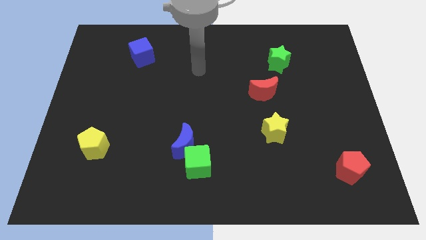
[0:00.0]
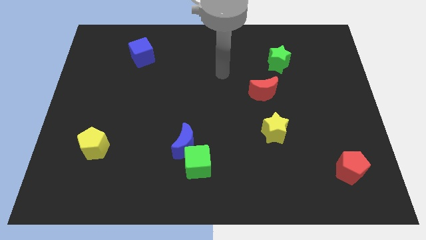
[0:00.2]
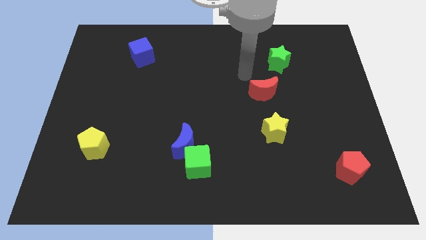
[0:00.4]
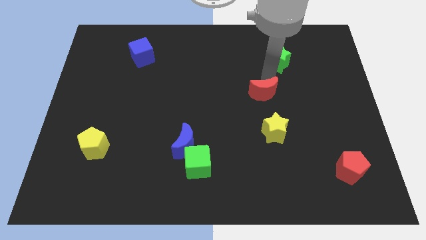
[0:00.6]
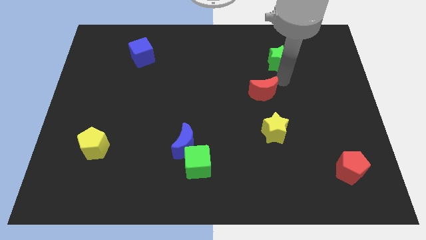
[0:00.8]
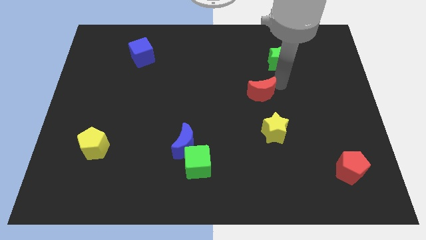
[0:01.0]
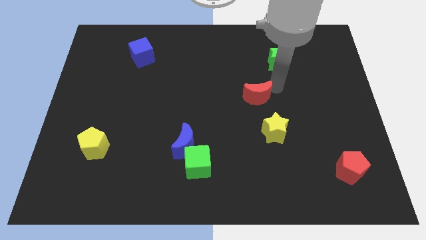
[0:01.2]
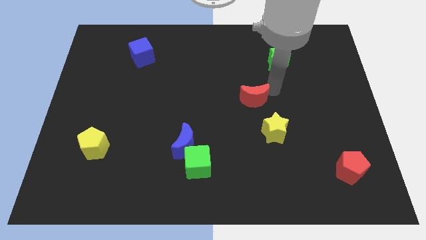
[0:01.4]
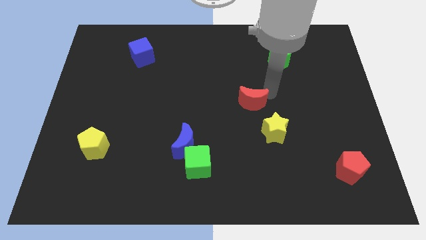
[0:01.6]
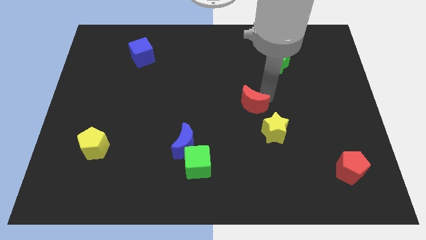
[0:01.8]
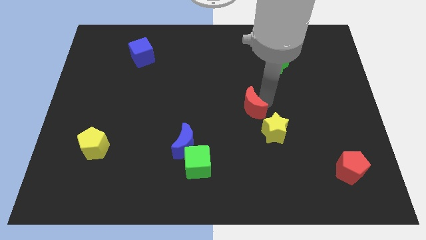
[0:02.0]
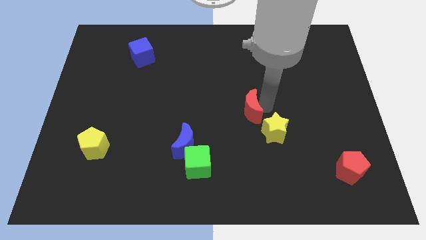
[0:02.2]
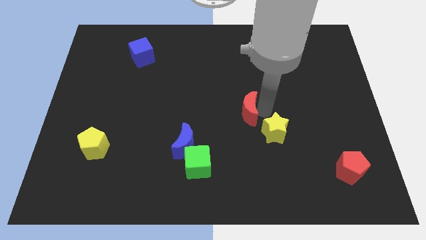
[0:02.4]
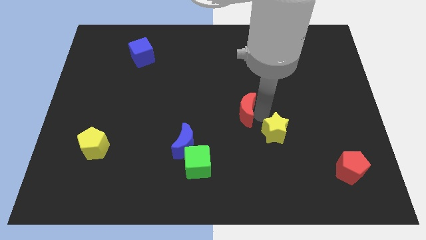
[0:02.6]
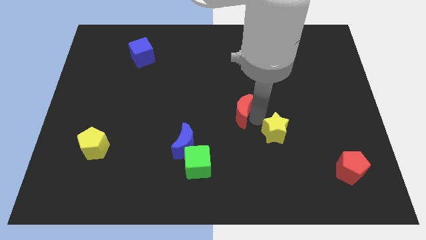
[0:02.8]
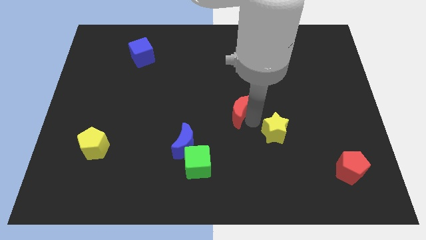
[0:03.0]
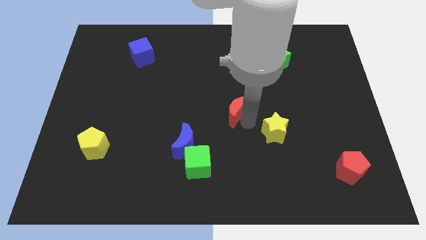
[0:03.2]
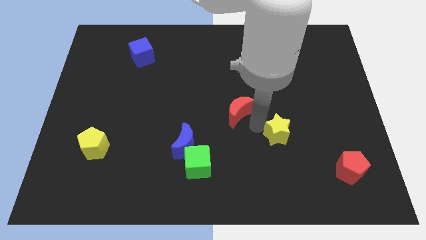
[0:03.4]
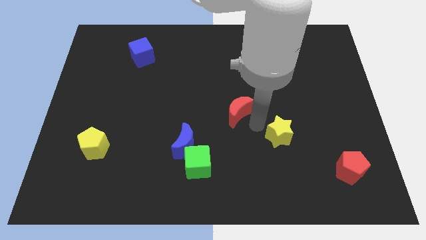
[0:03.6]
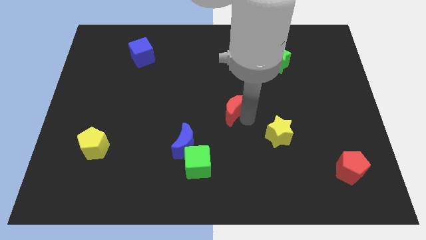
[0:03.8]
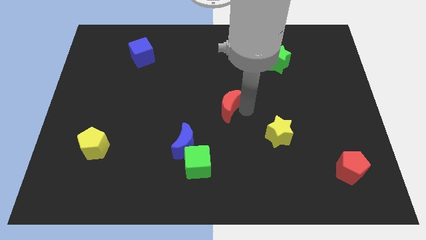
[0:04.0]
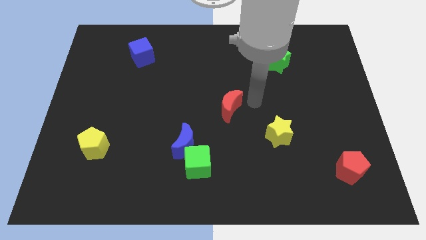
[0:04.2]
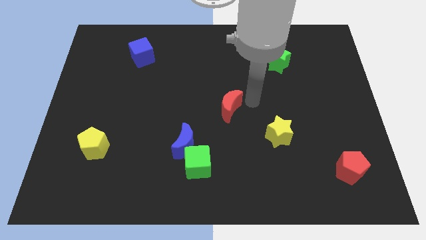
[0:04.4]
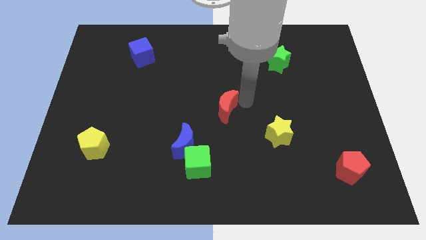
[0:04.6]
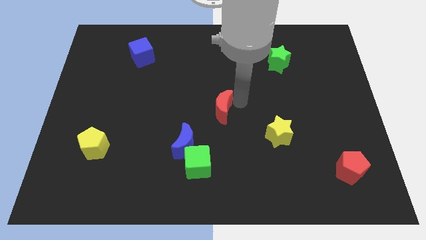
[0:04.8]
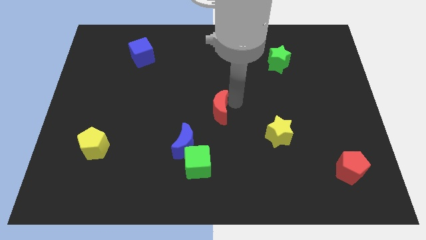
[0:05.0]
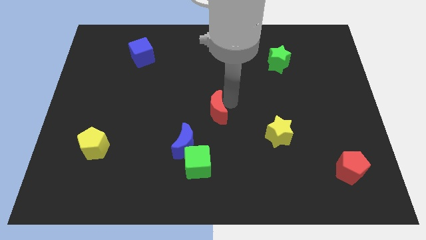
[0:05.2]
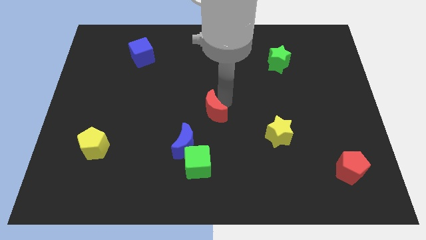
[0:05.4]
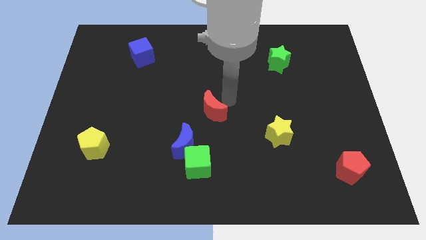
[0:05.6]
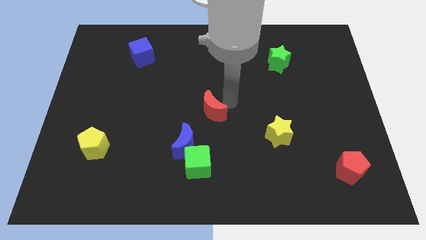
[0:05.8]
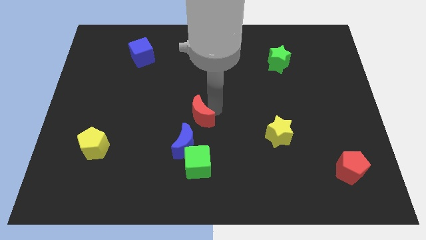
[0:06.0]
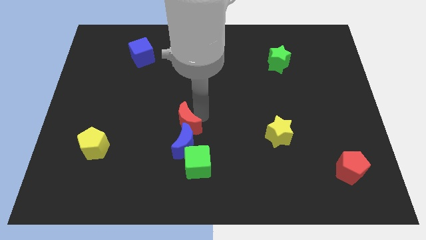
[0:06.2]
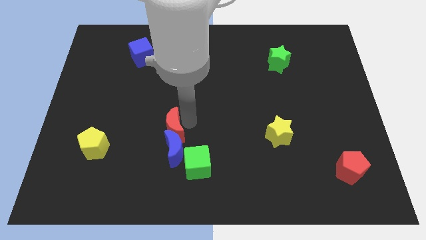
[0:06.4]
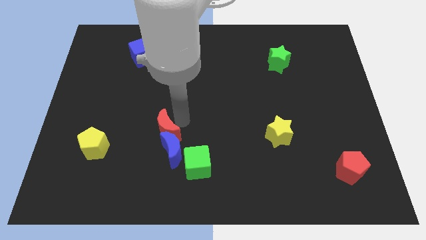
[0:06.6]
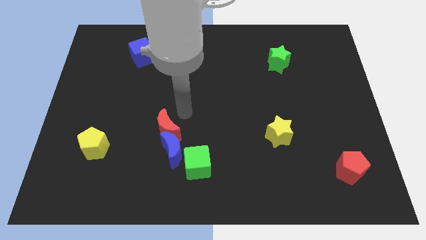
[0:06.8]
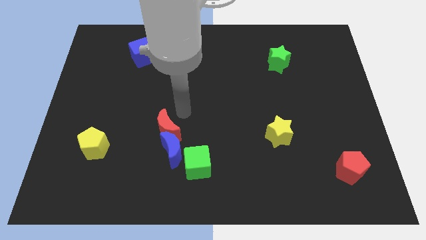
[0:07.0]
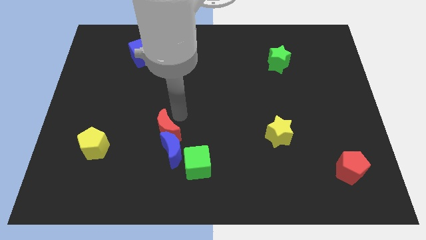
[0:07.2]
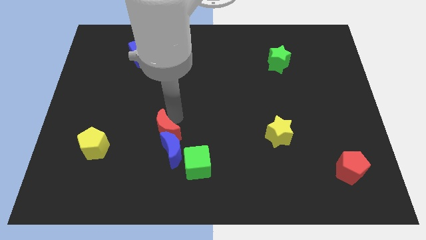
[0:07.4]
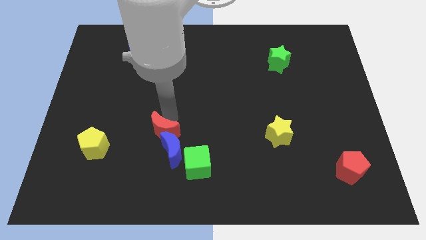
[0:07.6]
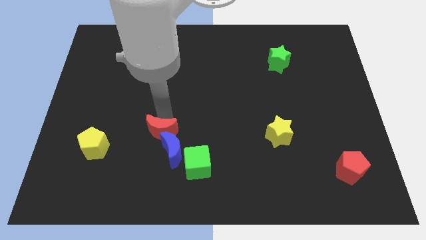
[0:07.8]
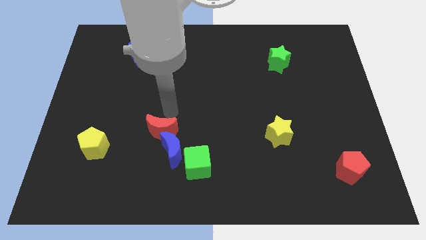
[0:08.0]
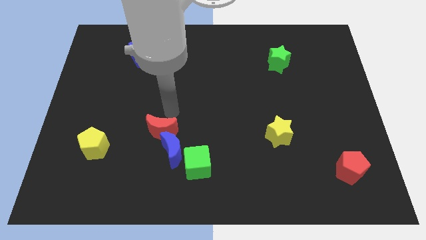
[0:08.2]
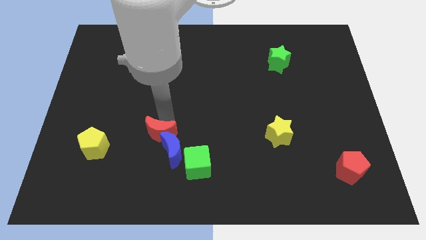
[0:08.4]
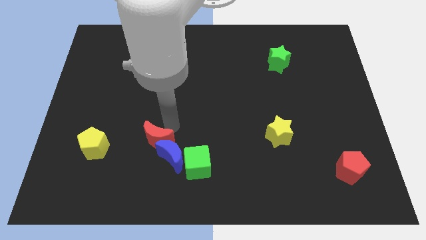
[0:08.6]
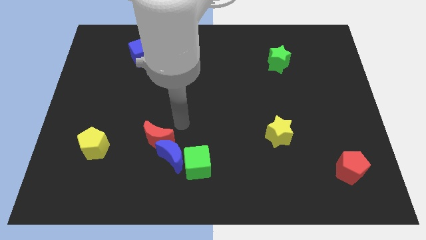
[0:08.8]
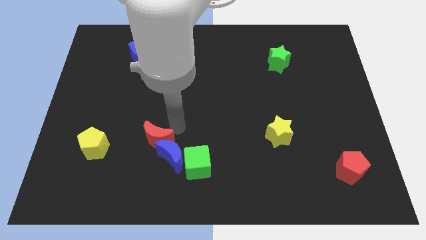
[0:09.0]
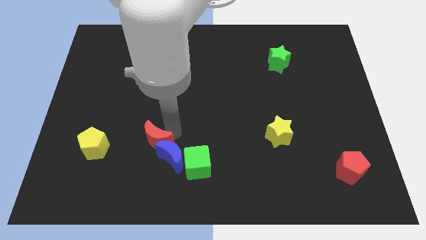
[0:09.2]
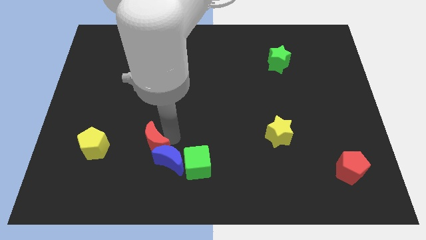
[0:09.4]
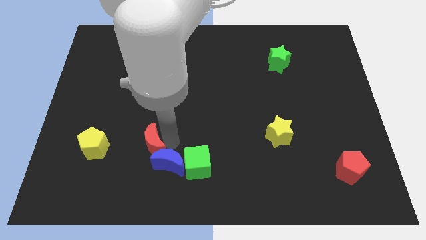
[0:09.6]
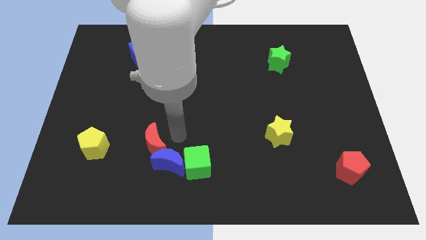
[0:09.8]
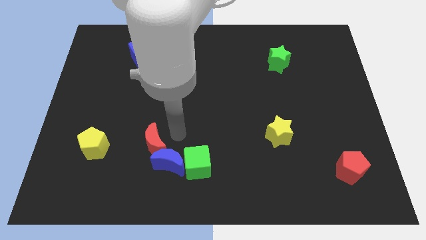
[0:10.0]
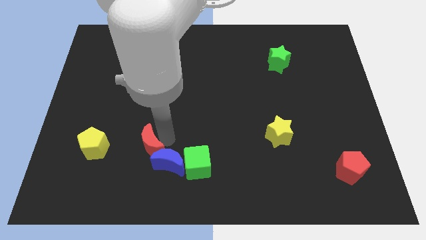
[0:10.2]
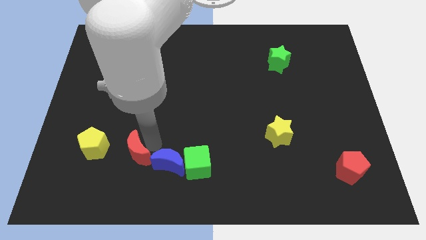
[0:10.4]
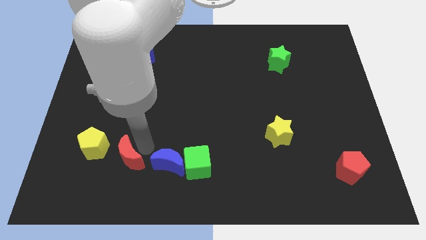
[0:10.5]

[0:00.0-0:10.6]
put the red moon to the bottom right side of the yellow pentagon

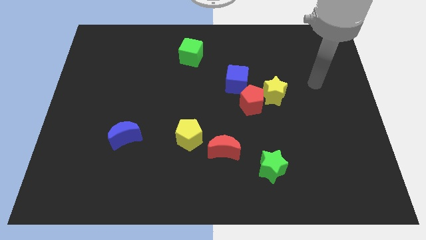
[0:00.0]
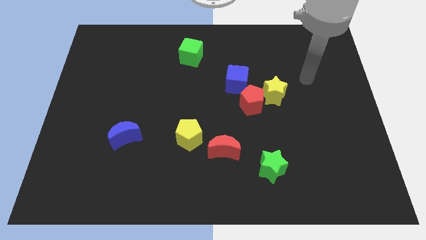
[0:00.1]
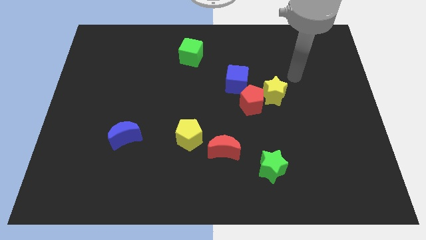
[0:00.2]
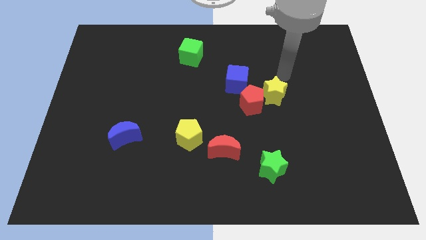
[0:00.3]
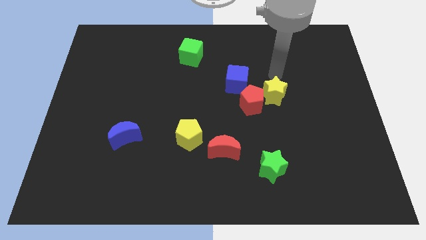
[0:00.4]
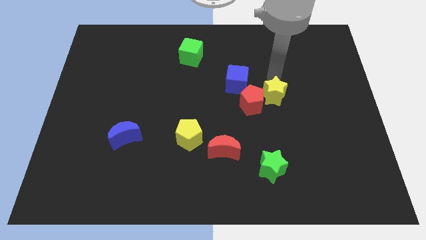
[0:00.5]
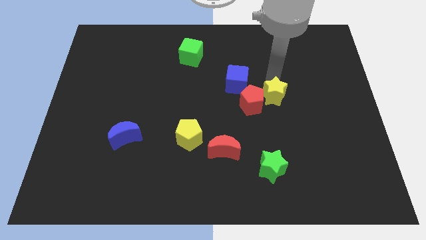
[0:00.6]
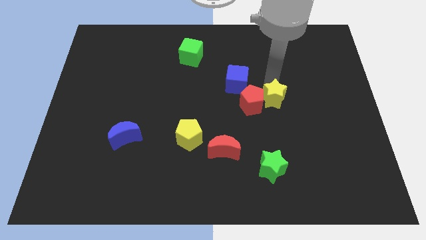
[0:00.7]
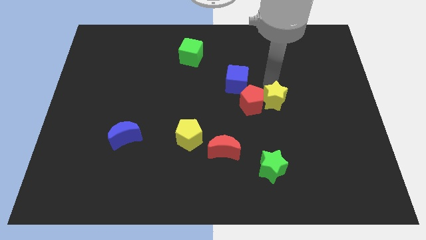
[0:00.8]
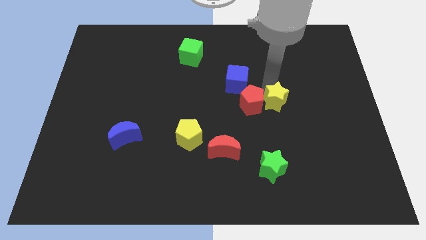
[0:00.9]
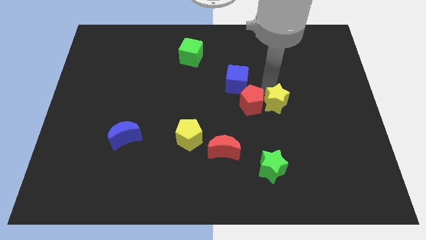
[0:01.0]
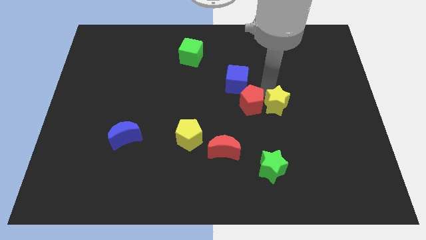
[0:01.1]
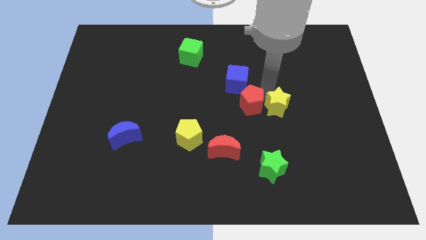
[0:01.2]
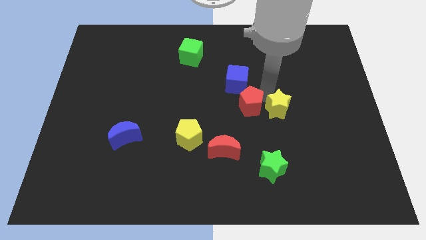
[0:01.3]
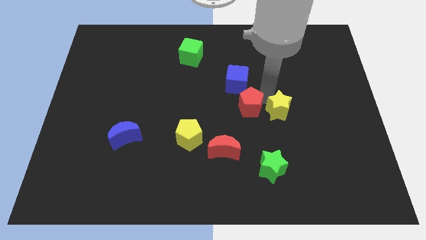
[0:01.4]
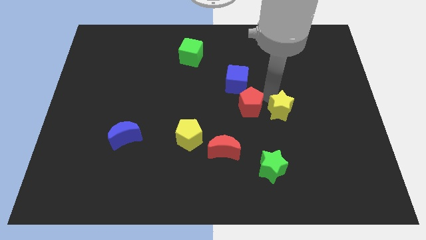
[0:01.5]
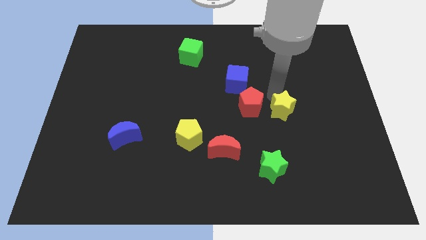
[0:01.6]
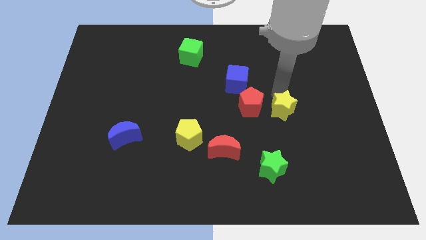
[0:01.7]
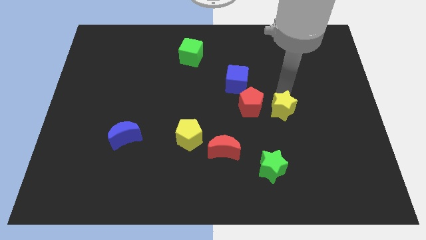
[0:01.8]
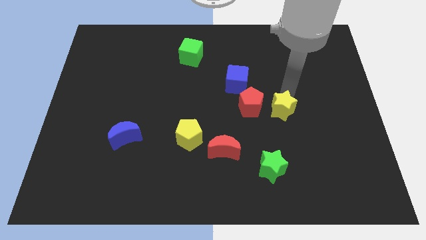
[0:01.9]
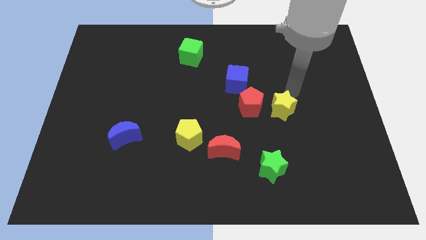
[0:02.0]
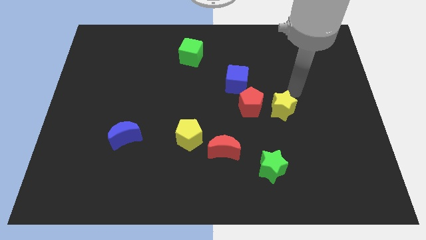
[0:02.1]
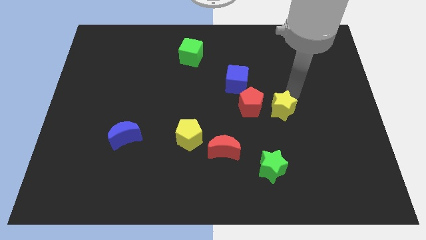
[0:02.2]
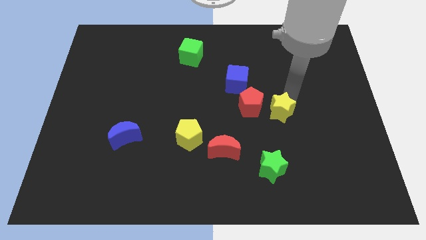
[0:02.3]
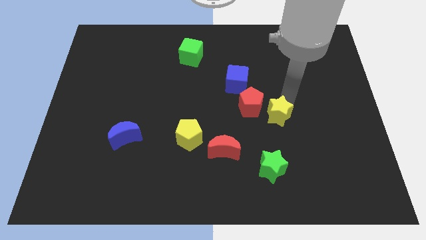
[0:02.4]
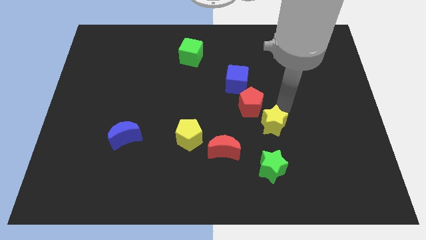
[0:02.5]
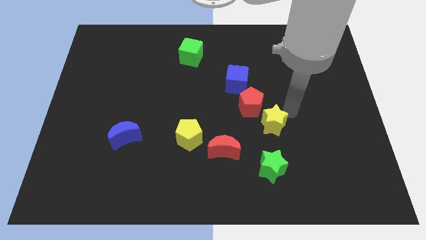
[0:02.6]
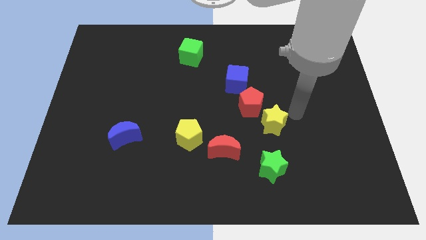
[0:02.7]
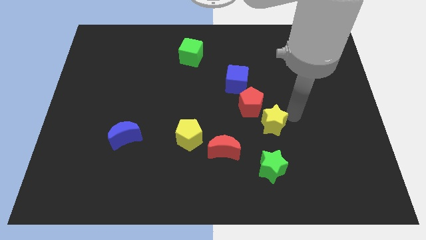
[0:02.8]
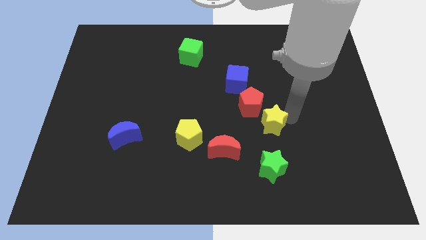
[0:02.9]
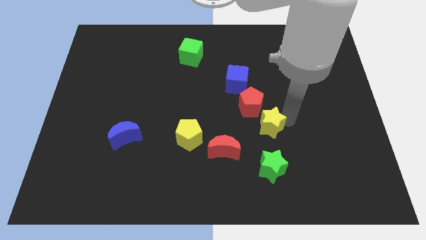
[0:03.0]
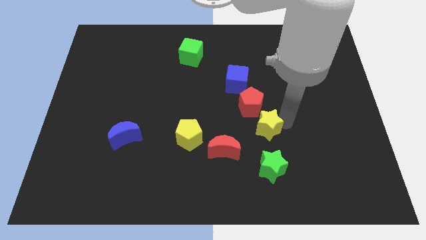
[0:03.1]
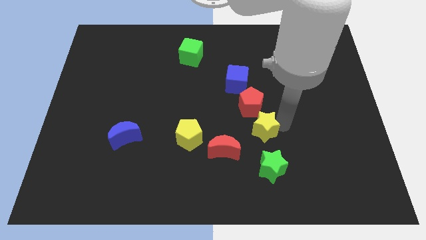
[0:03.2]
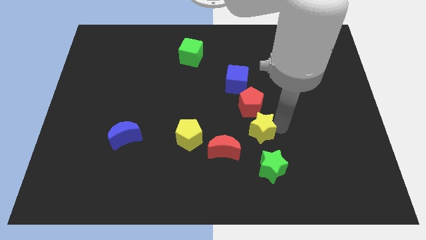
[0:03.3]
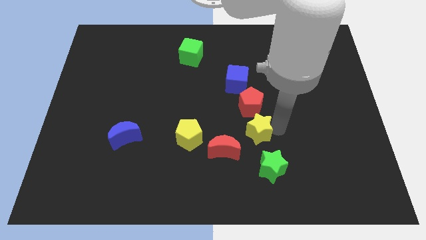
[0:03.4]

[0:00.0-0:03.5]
push the yellow star just right of the yellow pentagon
